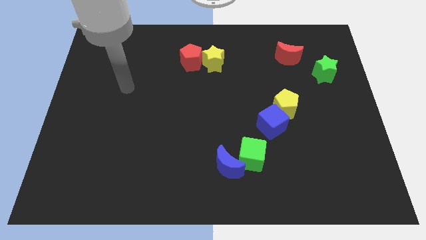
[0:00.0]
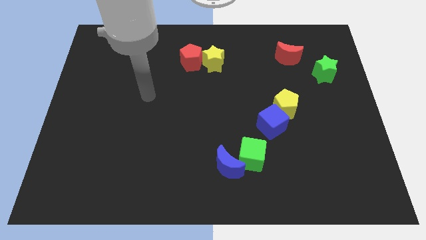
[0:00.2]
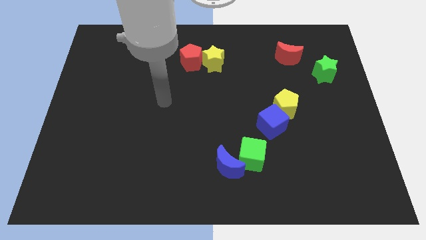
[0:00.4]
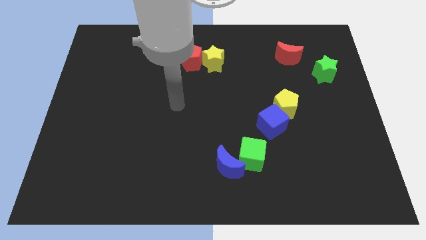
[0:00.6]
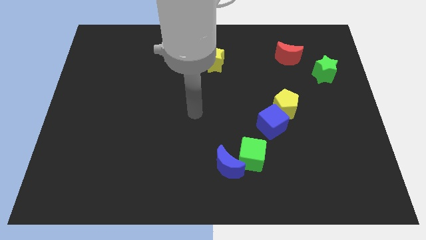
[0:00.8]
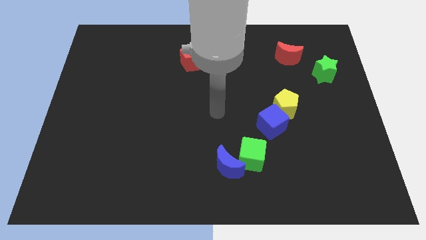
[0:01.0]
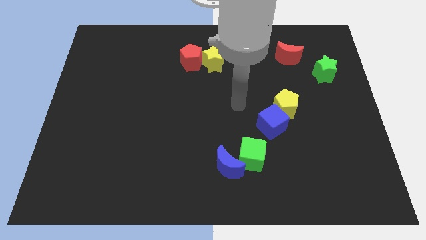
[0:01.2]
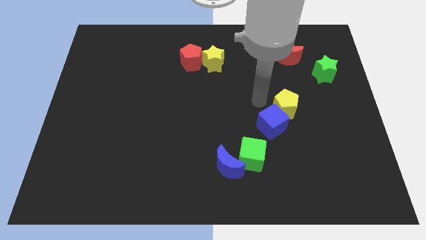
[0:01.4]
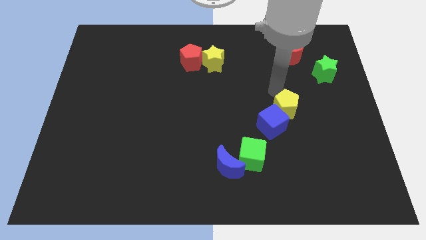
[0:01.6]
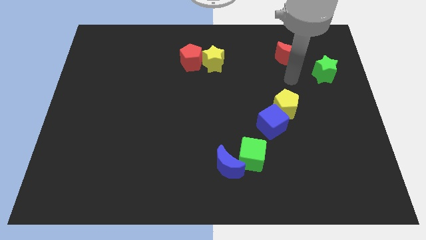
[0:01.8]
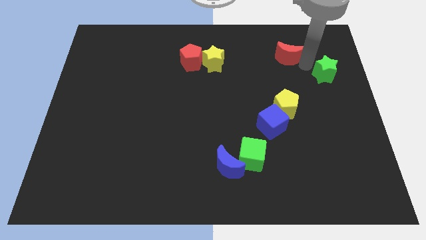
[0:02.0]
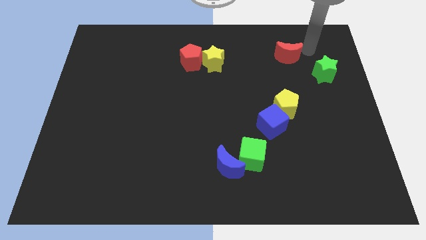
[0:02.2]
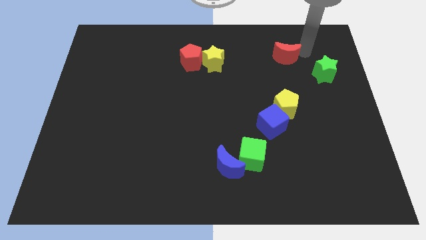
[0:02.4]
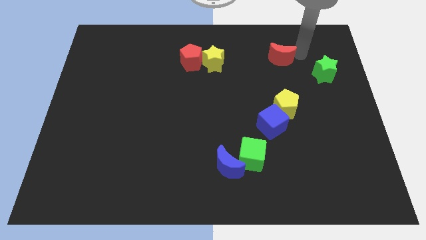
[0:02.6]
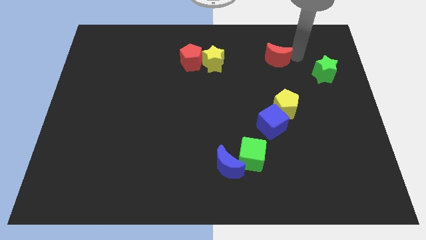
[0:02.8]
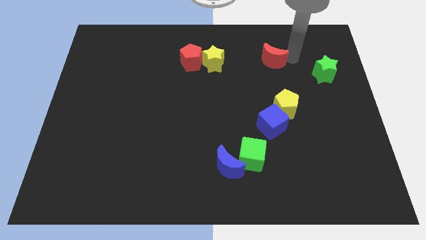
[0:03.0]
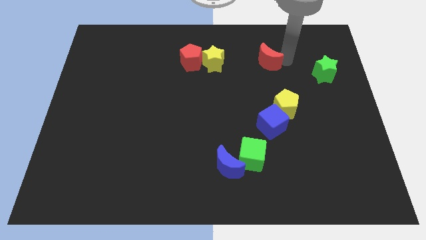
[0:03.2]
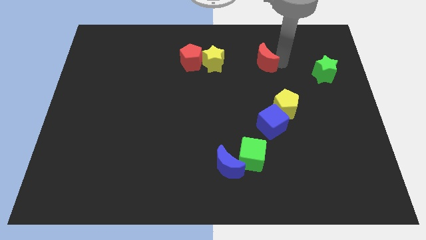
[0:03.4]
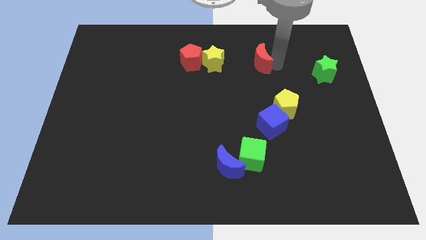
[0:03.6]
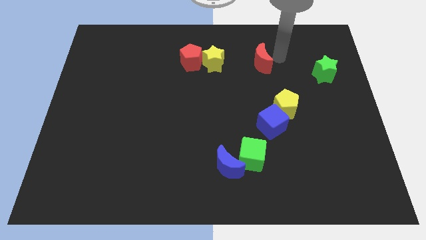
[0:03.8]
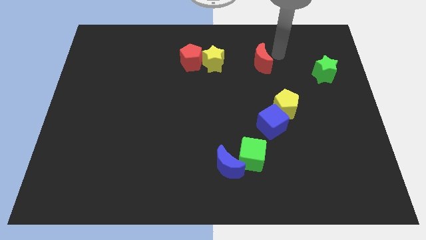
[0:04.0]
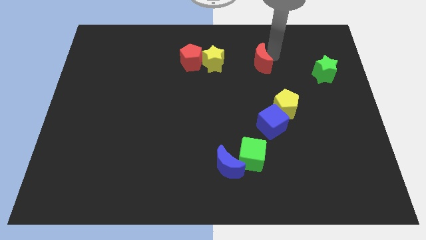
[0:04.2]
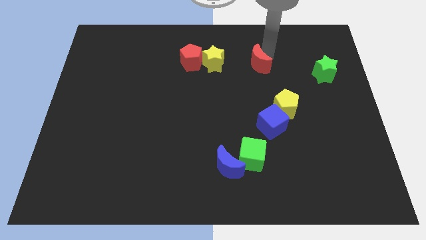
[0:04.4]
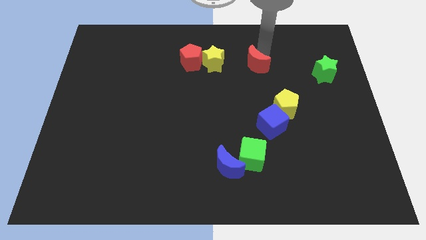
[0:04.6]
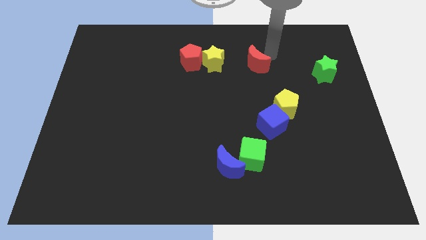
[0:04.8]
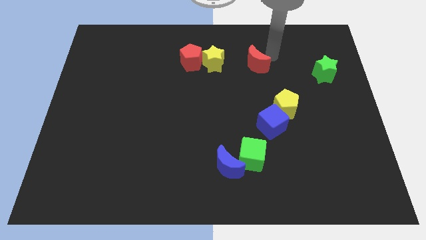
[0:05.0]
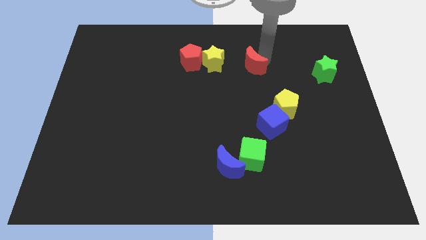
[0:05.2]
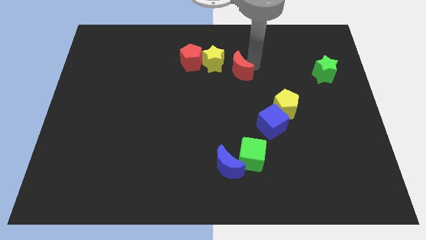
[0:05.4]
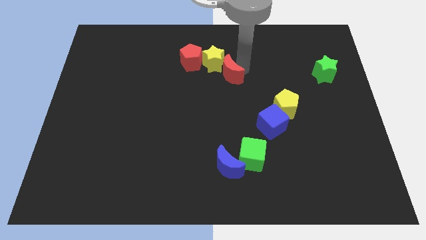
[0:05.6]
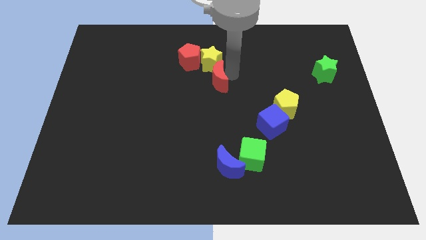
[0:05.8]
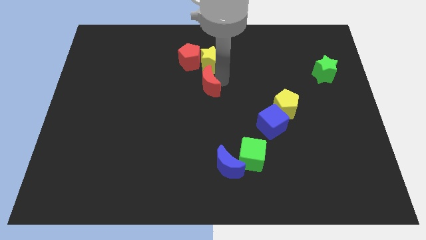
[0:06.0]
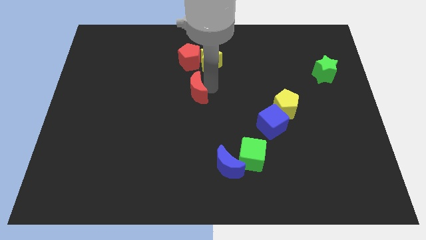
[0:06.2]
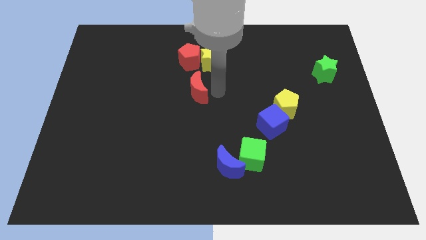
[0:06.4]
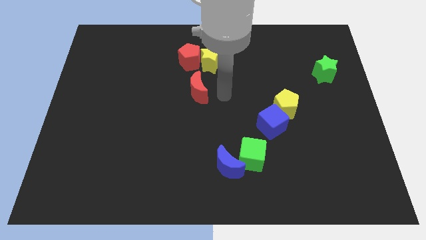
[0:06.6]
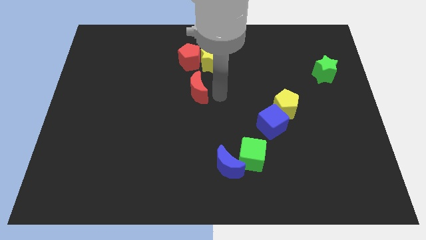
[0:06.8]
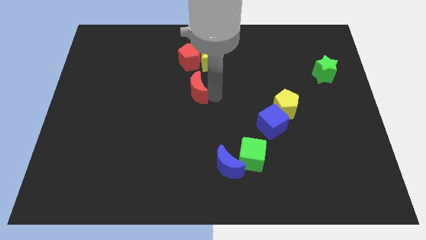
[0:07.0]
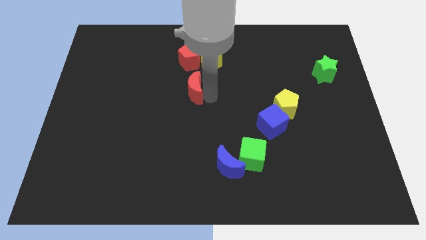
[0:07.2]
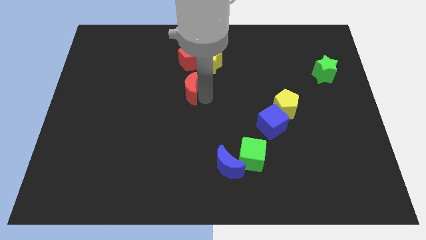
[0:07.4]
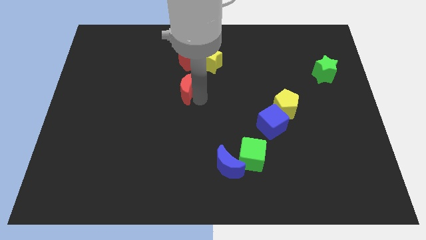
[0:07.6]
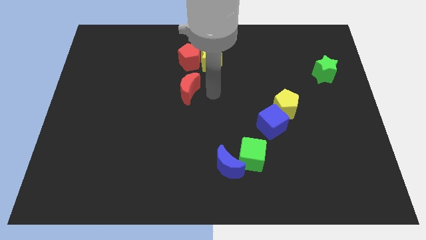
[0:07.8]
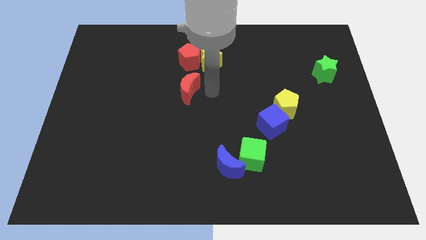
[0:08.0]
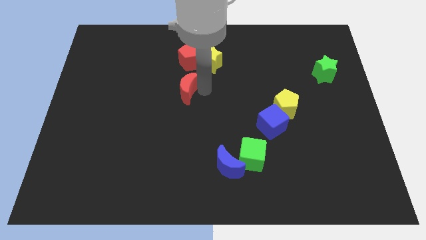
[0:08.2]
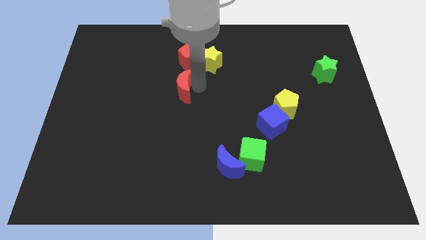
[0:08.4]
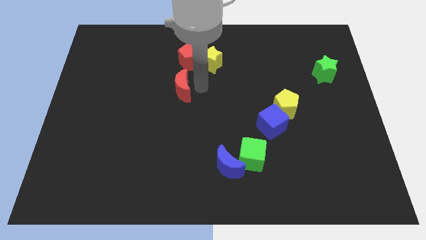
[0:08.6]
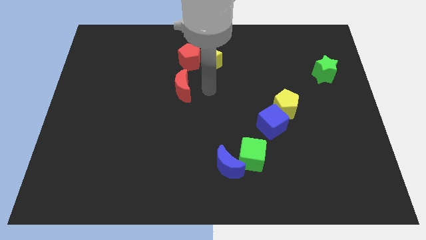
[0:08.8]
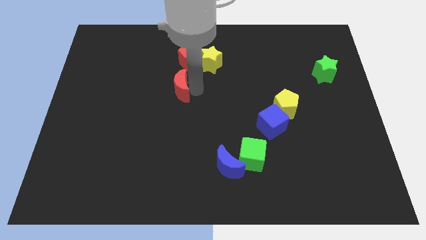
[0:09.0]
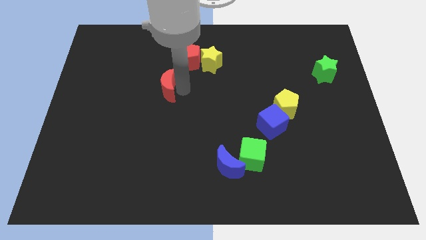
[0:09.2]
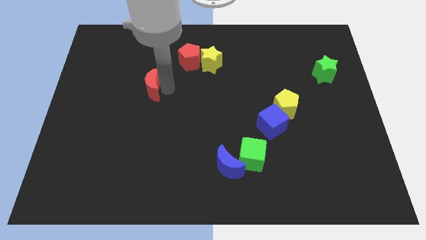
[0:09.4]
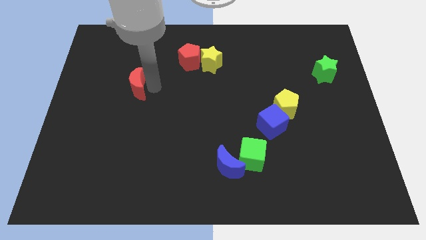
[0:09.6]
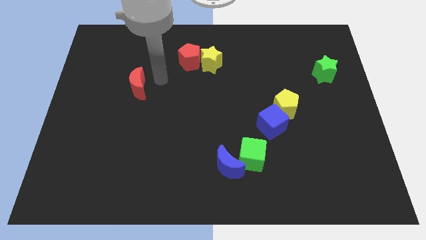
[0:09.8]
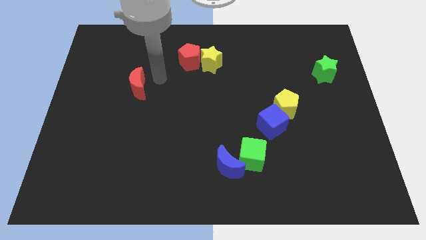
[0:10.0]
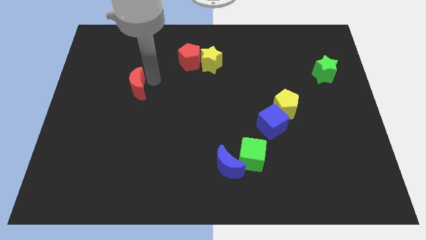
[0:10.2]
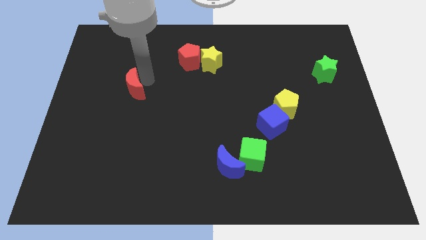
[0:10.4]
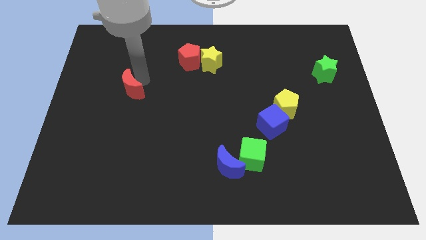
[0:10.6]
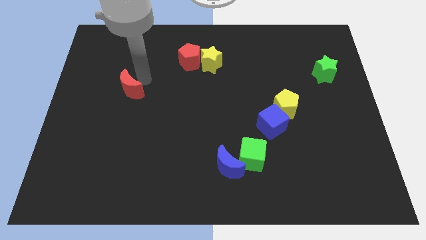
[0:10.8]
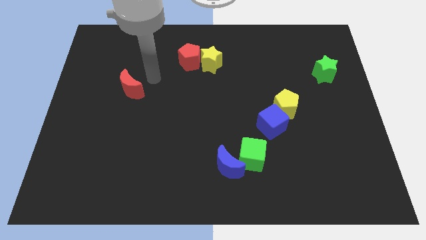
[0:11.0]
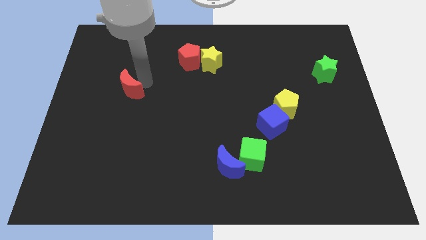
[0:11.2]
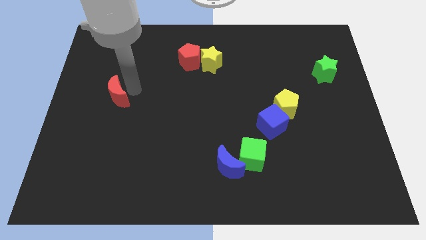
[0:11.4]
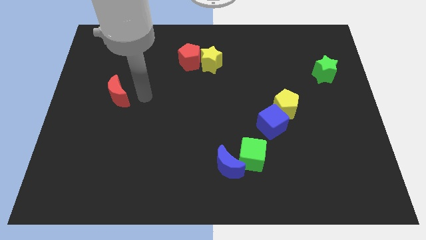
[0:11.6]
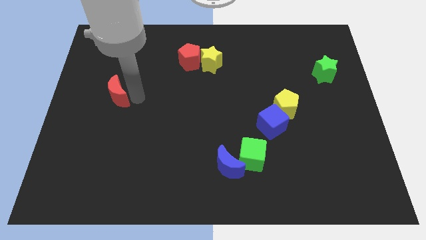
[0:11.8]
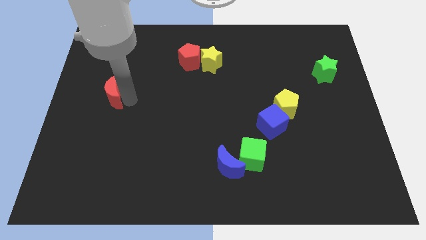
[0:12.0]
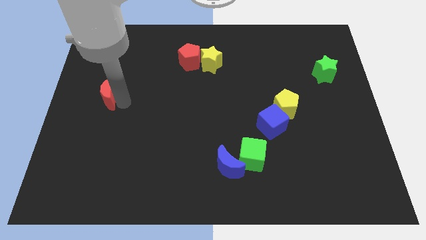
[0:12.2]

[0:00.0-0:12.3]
slide the red moon to the left side
